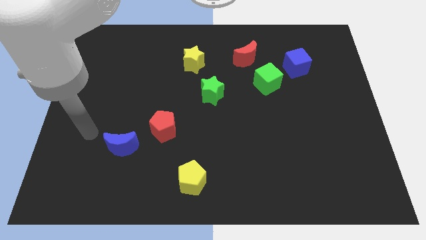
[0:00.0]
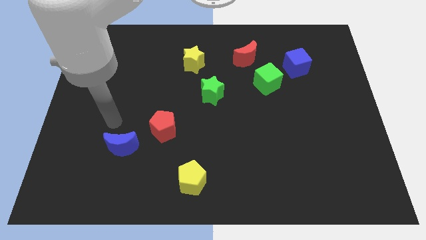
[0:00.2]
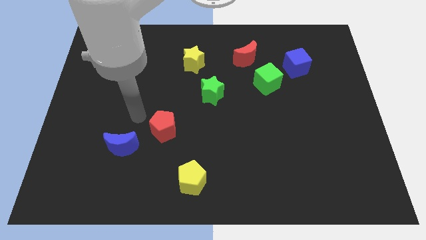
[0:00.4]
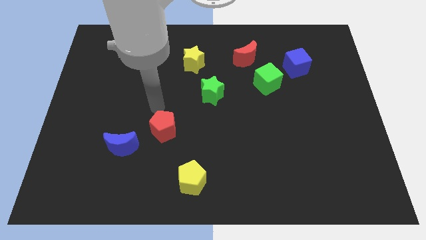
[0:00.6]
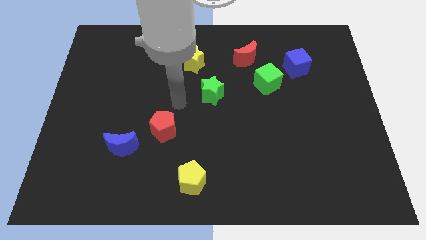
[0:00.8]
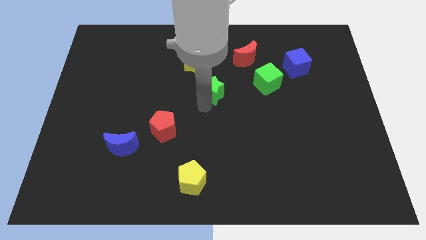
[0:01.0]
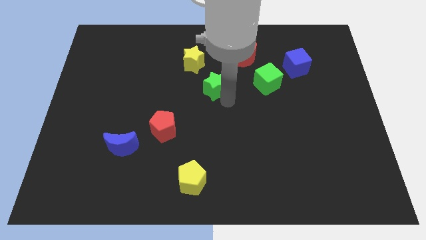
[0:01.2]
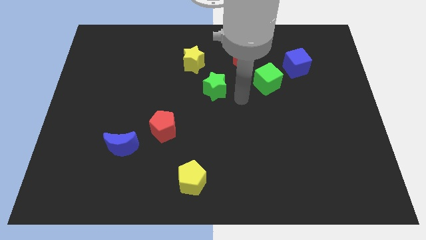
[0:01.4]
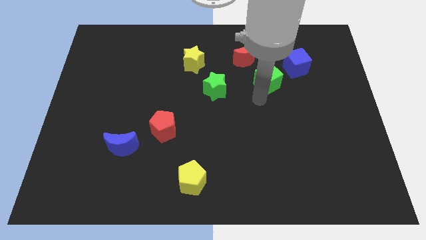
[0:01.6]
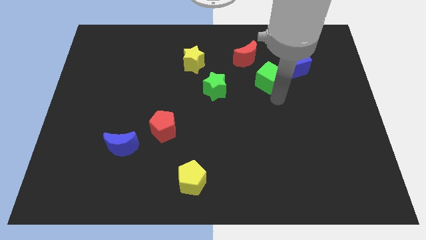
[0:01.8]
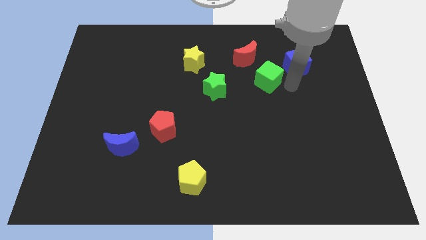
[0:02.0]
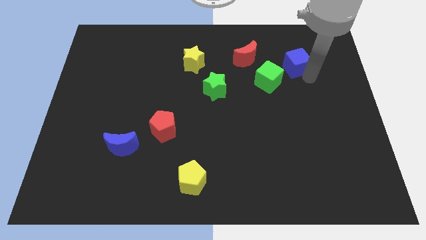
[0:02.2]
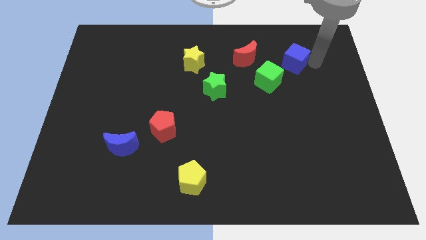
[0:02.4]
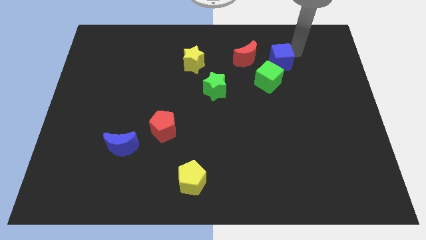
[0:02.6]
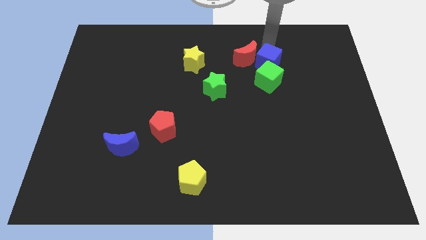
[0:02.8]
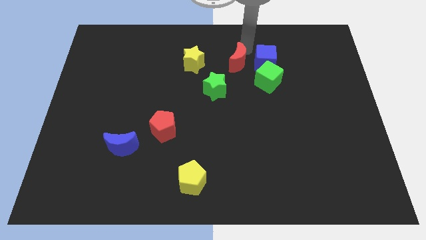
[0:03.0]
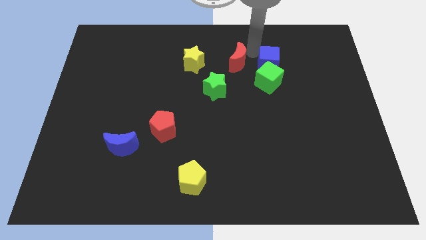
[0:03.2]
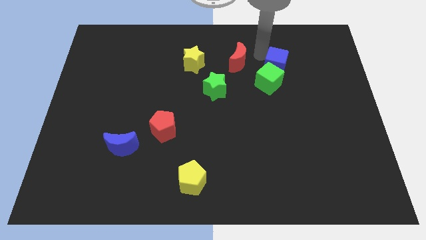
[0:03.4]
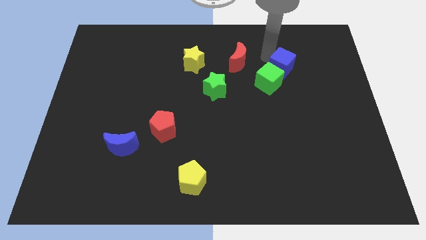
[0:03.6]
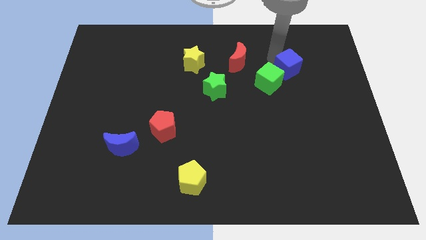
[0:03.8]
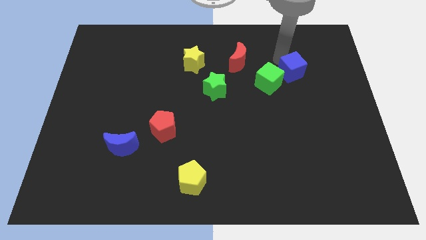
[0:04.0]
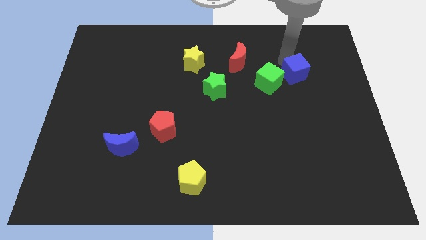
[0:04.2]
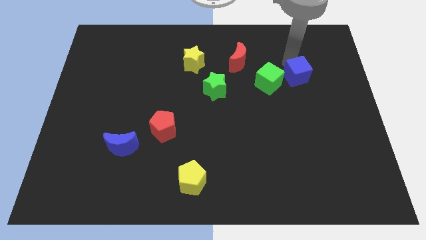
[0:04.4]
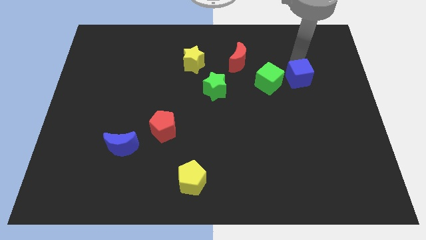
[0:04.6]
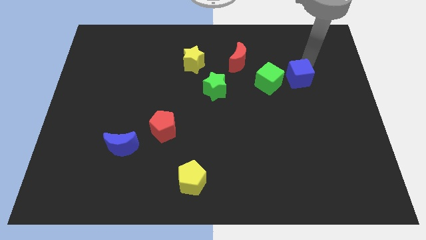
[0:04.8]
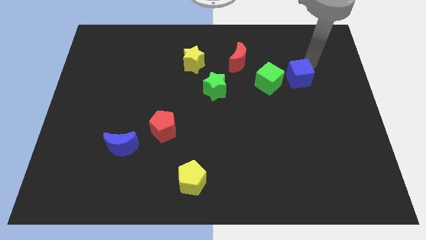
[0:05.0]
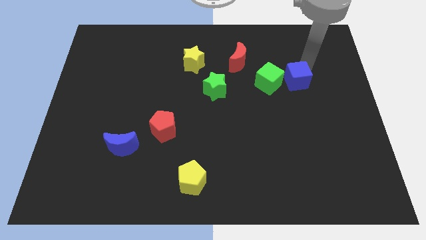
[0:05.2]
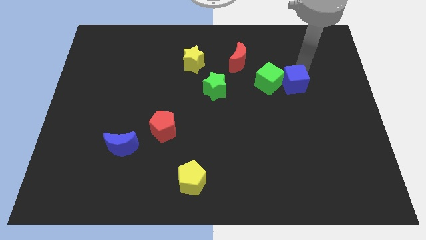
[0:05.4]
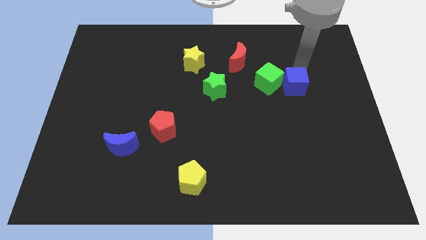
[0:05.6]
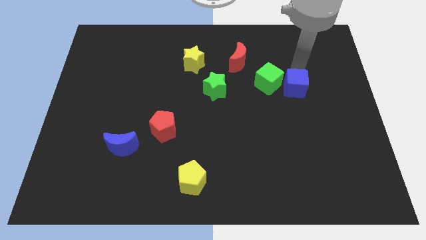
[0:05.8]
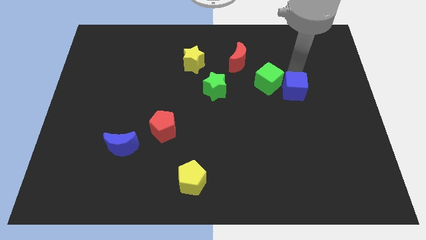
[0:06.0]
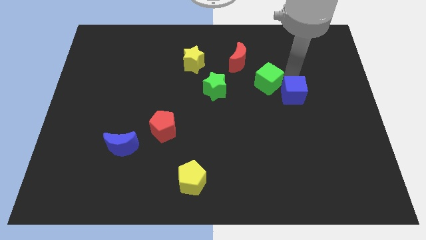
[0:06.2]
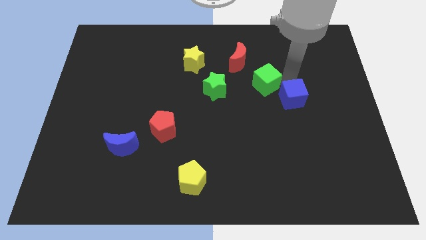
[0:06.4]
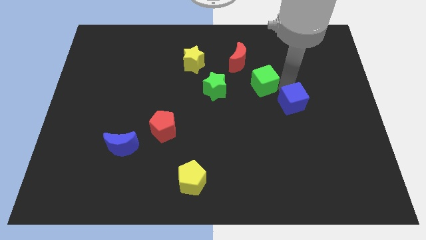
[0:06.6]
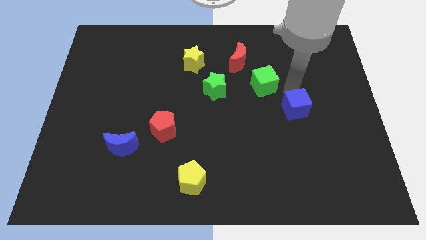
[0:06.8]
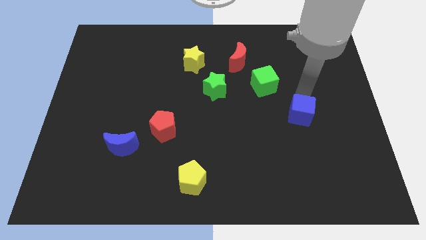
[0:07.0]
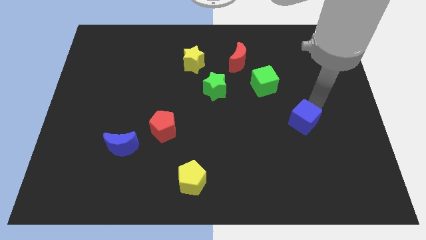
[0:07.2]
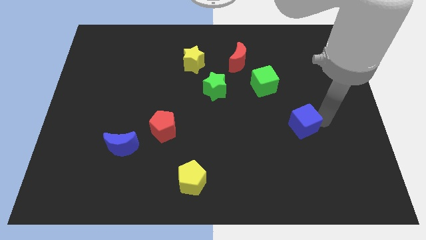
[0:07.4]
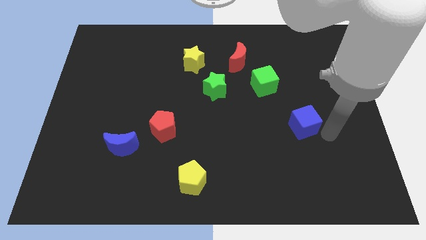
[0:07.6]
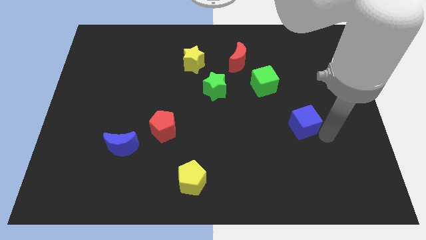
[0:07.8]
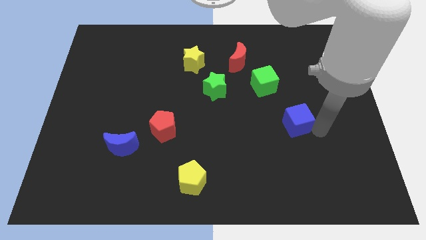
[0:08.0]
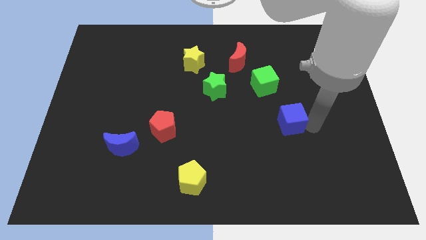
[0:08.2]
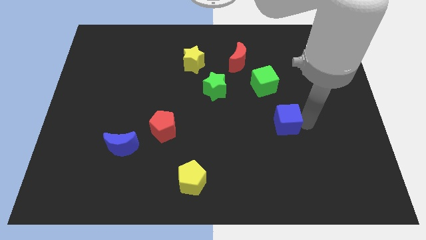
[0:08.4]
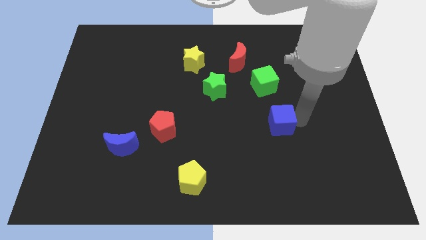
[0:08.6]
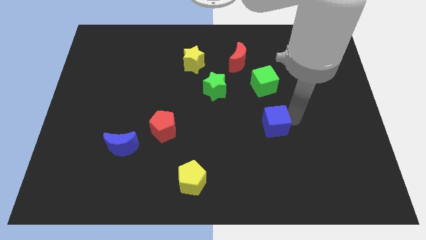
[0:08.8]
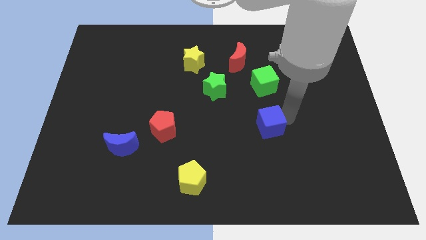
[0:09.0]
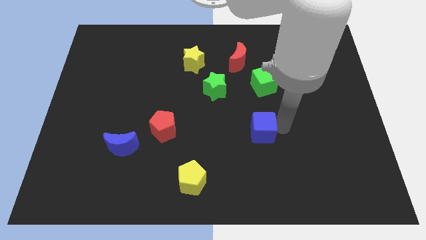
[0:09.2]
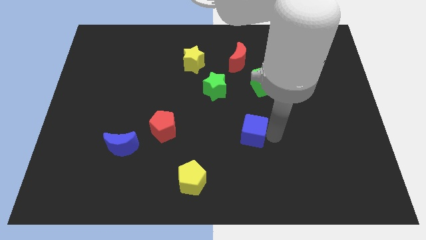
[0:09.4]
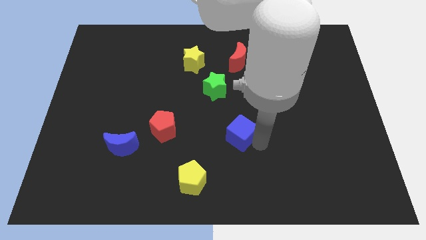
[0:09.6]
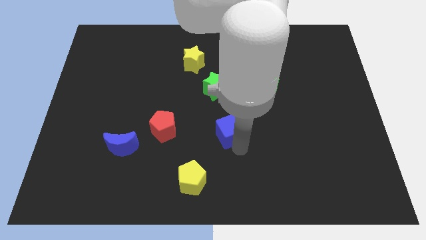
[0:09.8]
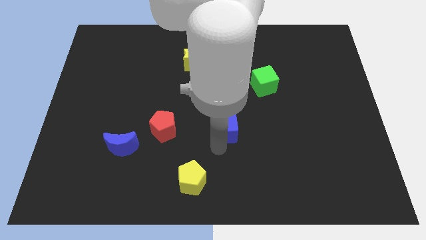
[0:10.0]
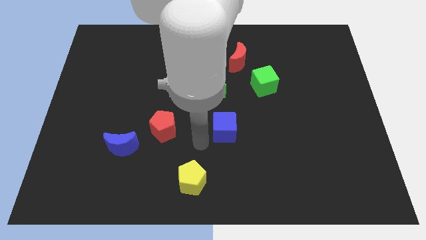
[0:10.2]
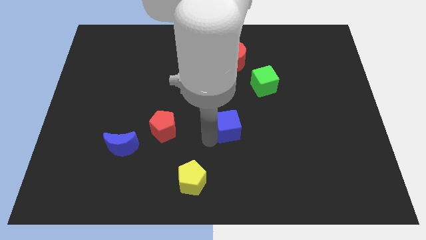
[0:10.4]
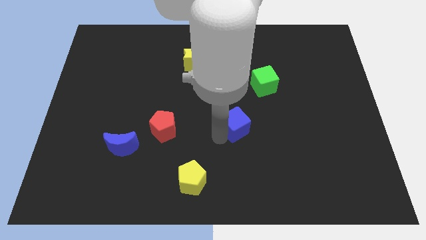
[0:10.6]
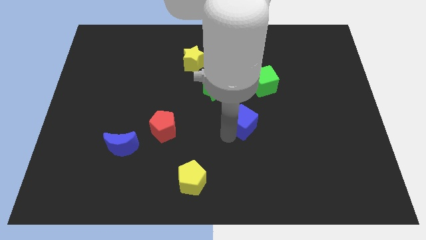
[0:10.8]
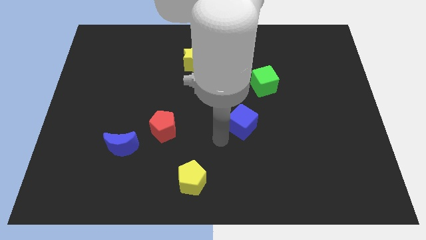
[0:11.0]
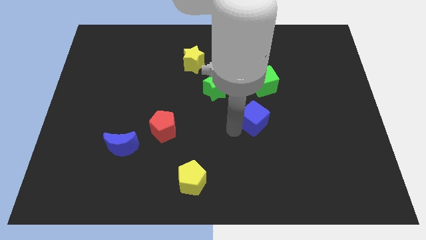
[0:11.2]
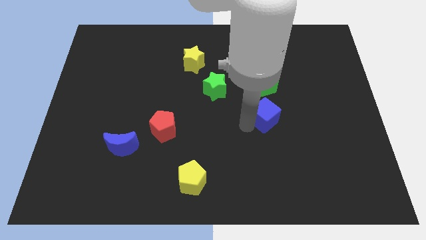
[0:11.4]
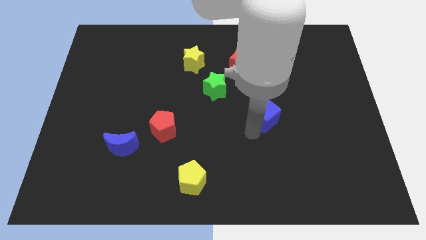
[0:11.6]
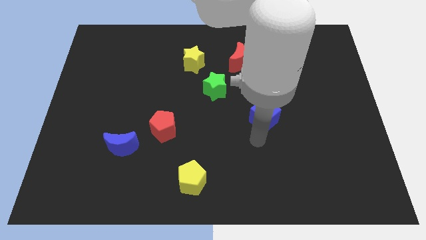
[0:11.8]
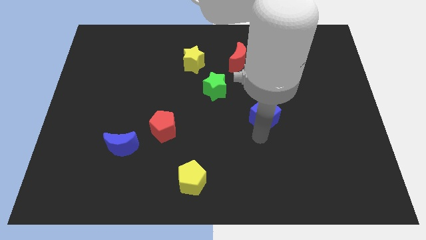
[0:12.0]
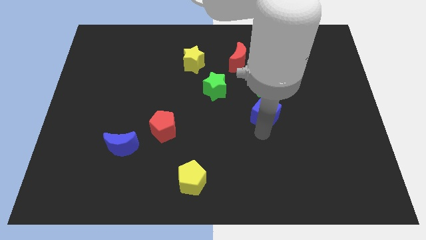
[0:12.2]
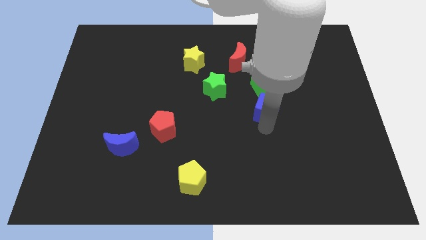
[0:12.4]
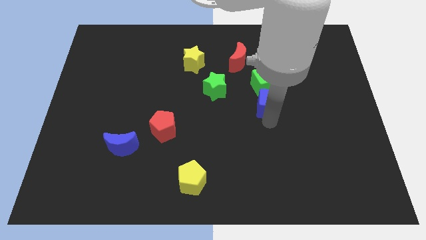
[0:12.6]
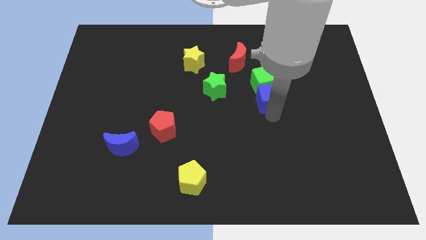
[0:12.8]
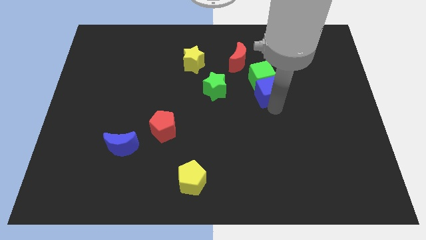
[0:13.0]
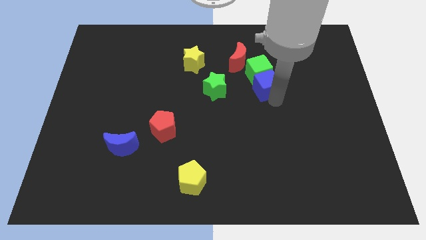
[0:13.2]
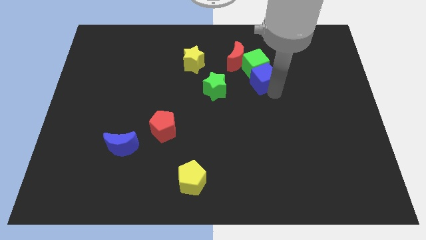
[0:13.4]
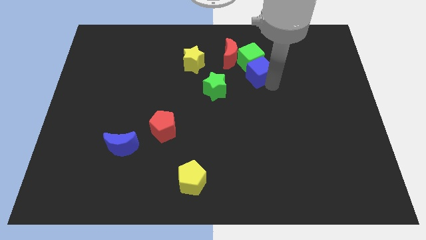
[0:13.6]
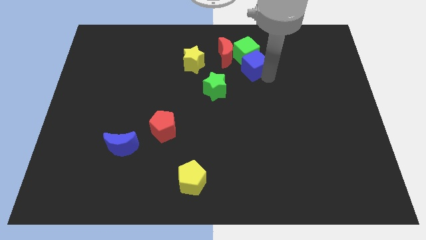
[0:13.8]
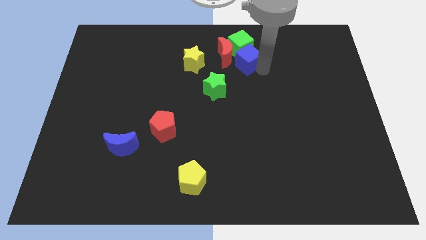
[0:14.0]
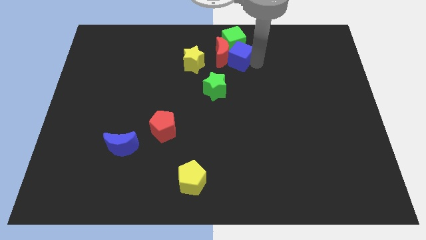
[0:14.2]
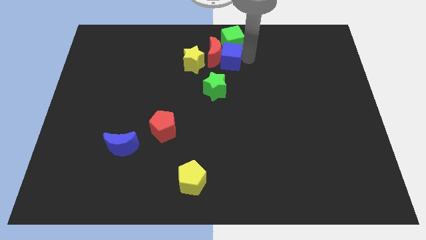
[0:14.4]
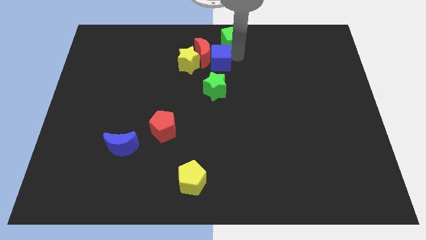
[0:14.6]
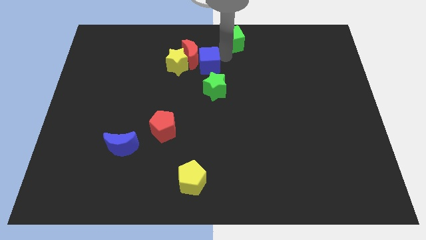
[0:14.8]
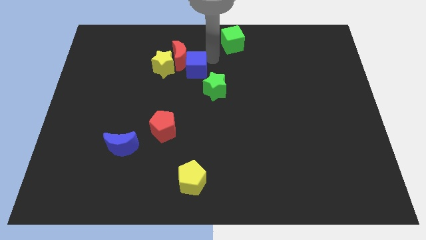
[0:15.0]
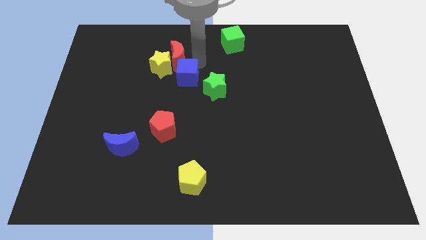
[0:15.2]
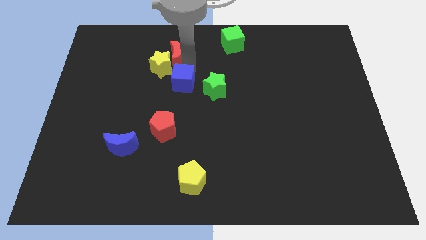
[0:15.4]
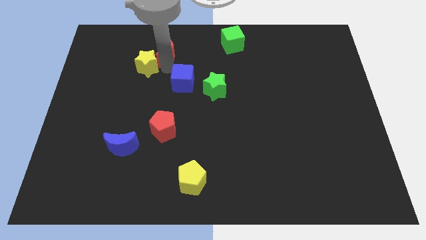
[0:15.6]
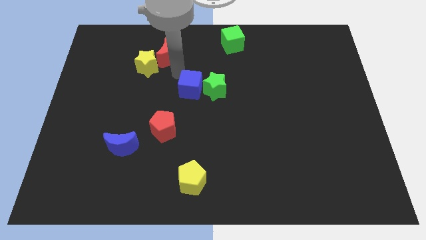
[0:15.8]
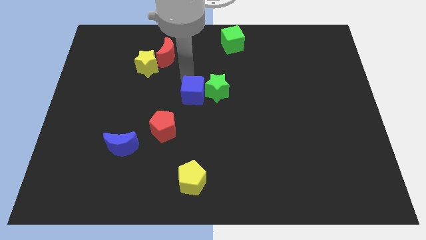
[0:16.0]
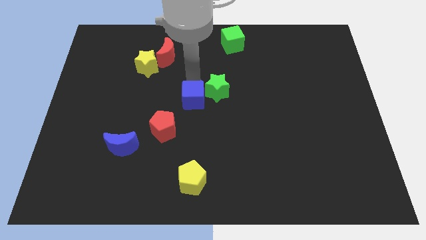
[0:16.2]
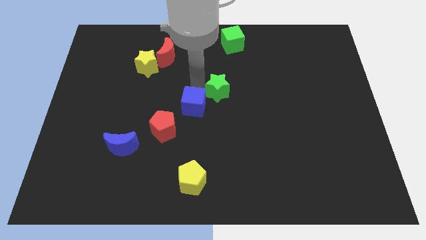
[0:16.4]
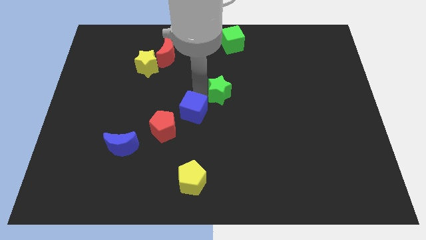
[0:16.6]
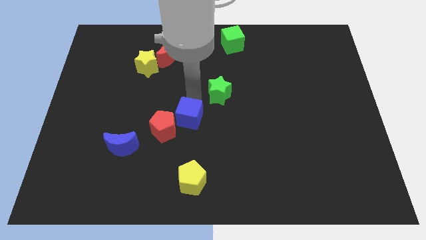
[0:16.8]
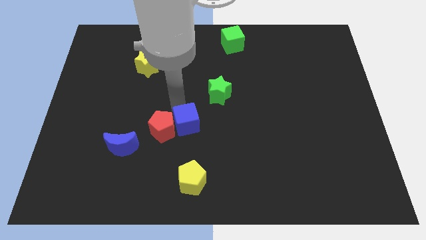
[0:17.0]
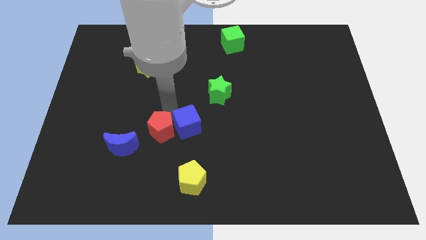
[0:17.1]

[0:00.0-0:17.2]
put the blue cube to the bottom right of the red pentagon
